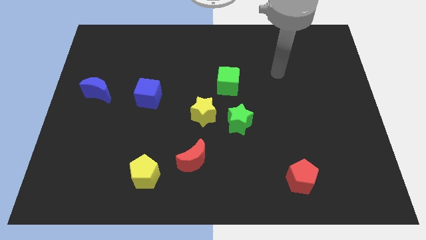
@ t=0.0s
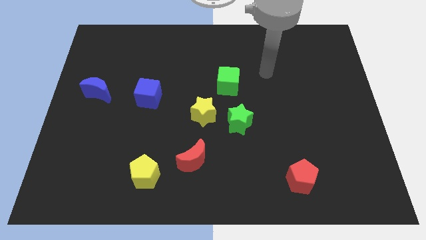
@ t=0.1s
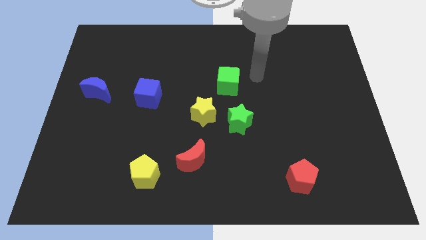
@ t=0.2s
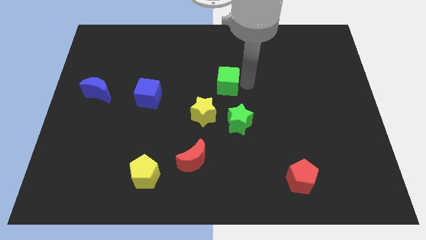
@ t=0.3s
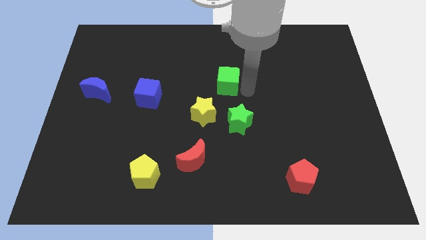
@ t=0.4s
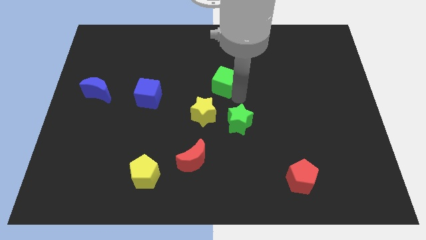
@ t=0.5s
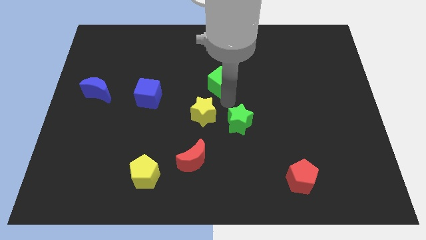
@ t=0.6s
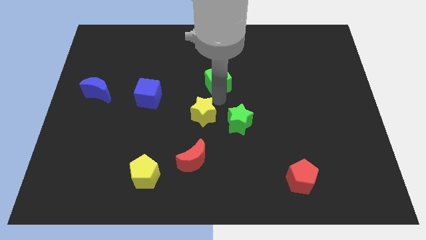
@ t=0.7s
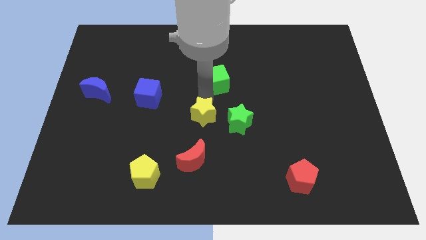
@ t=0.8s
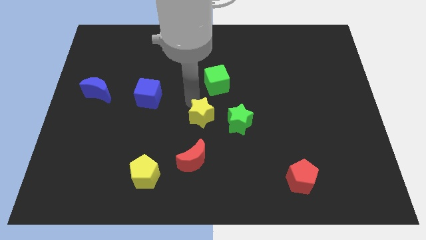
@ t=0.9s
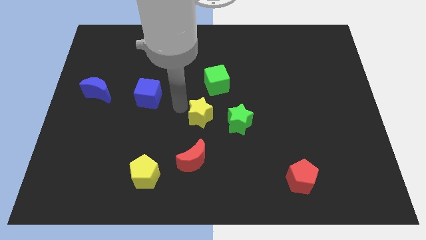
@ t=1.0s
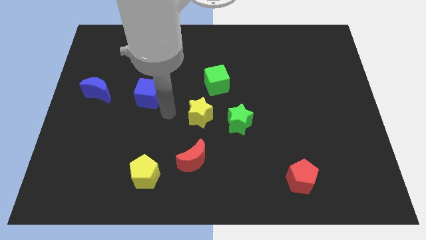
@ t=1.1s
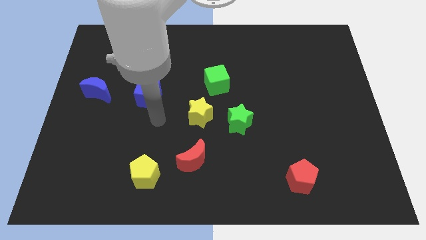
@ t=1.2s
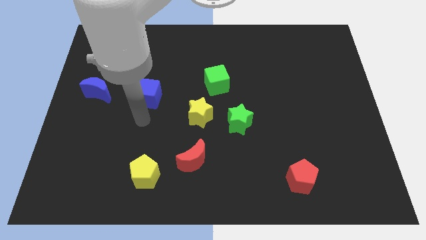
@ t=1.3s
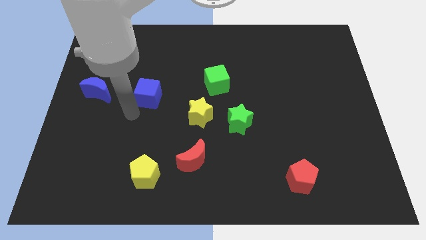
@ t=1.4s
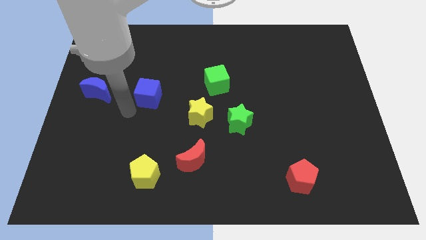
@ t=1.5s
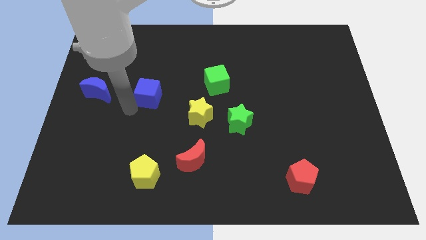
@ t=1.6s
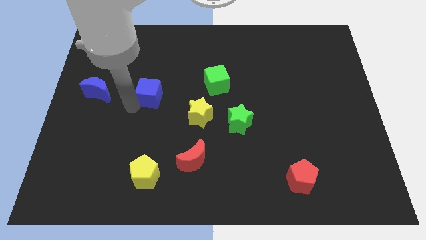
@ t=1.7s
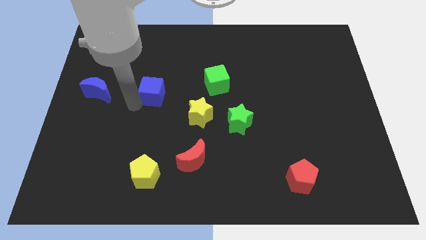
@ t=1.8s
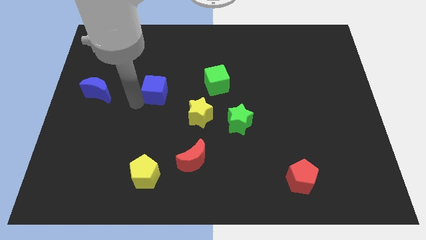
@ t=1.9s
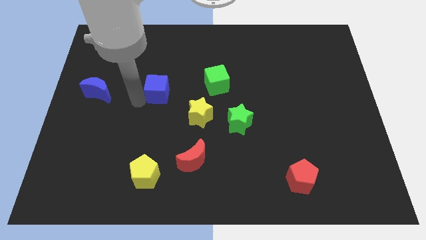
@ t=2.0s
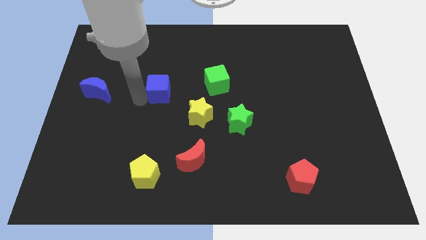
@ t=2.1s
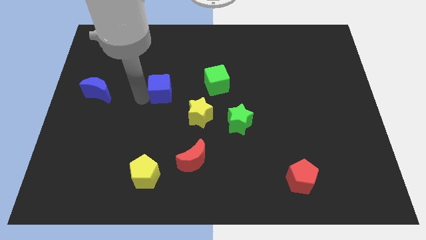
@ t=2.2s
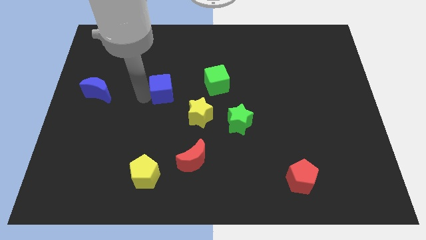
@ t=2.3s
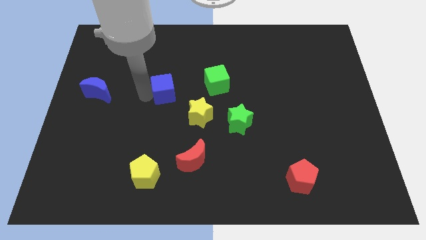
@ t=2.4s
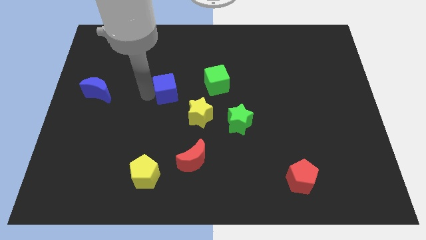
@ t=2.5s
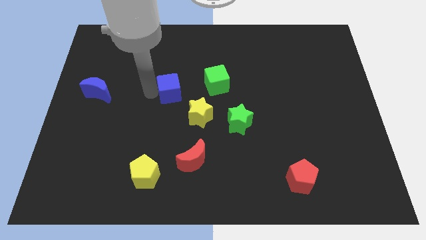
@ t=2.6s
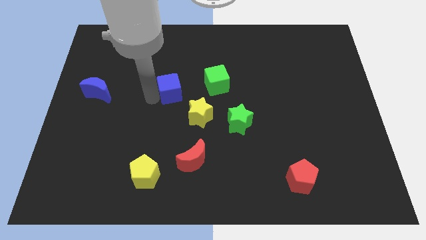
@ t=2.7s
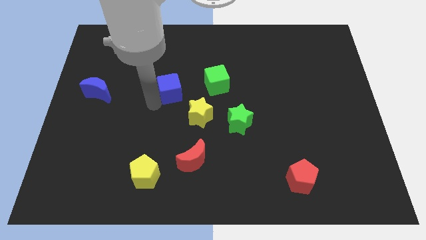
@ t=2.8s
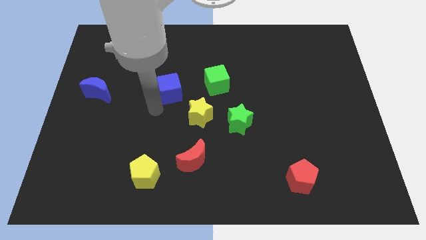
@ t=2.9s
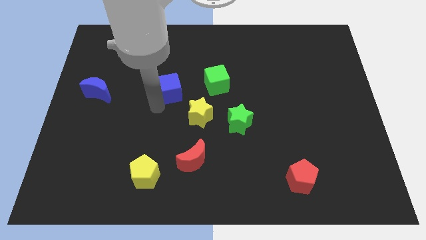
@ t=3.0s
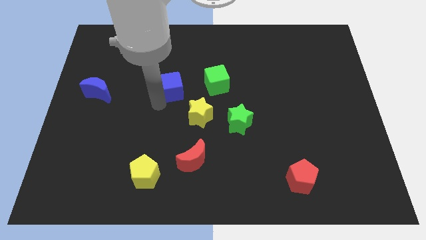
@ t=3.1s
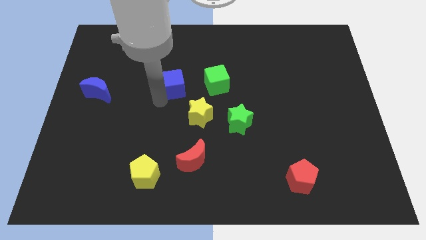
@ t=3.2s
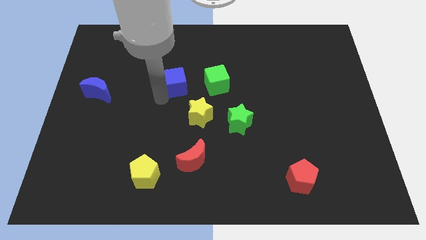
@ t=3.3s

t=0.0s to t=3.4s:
slide the blue cube slightly upwards and right

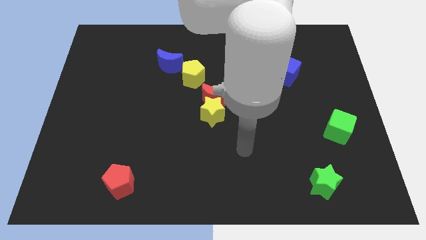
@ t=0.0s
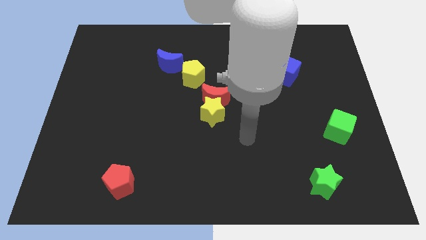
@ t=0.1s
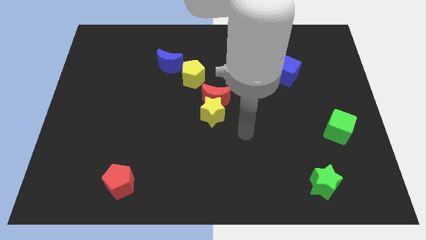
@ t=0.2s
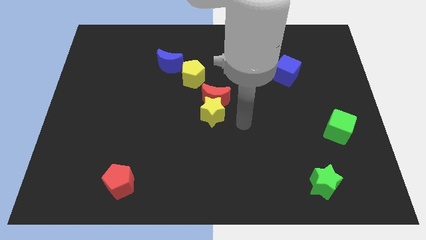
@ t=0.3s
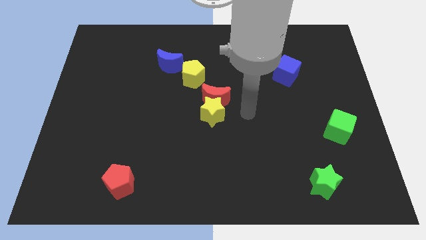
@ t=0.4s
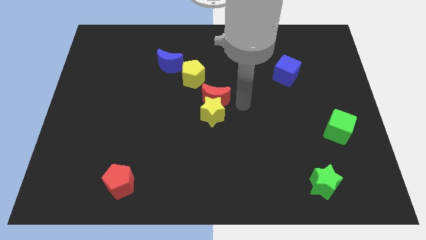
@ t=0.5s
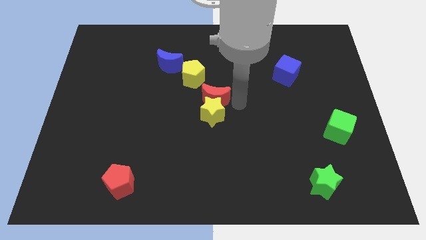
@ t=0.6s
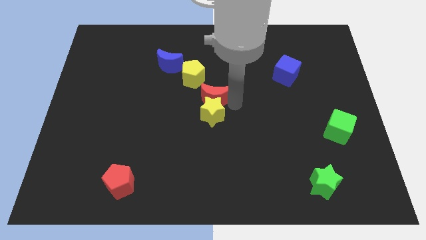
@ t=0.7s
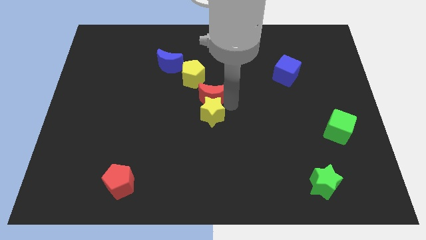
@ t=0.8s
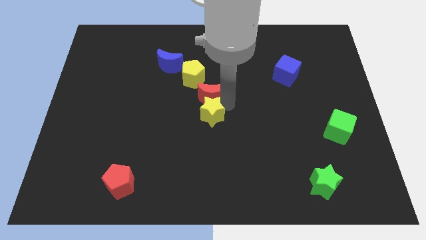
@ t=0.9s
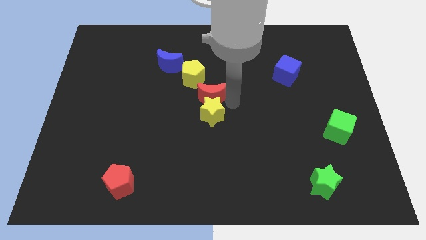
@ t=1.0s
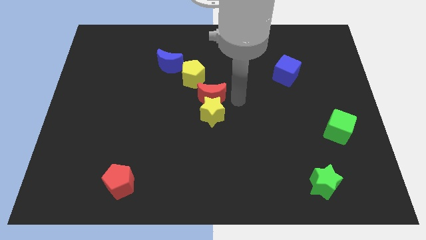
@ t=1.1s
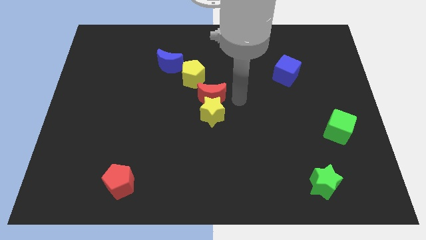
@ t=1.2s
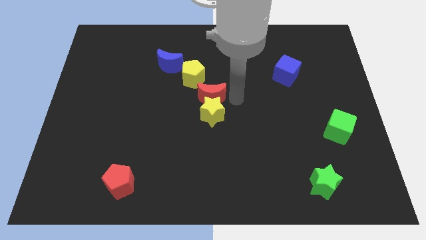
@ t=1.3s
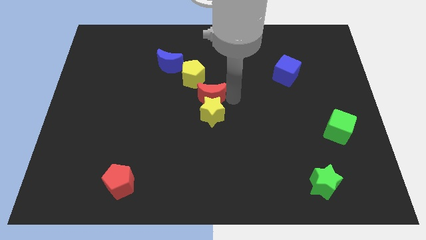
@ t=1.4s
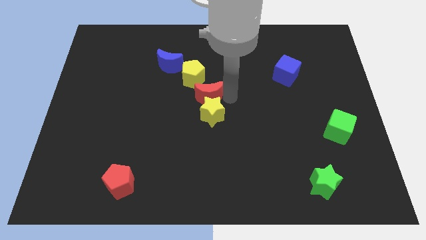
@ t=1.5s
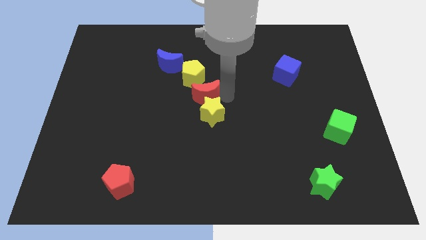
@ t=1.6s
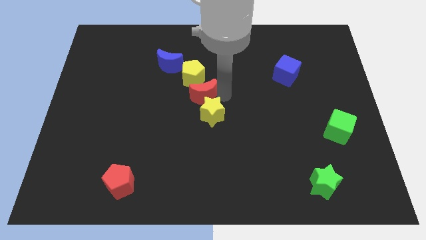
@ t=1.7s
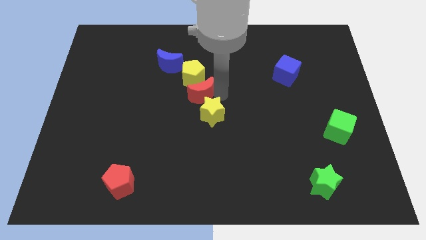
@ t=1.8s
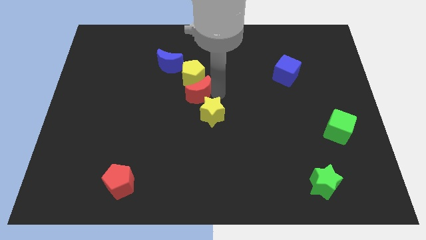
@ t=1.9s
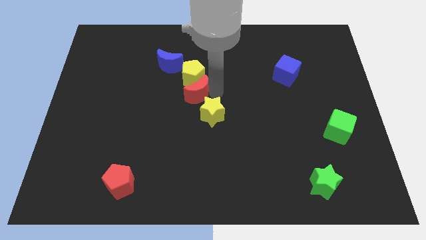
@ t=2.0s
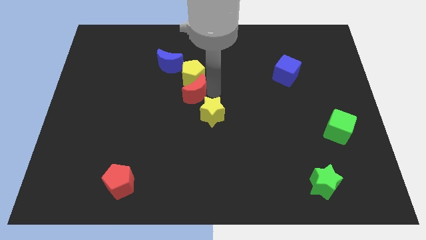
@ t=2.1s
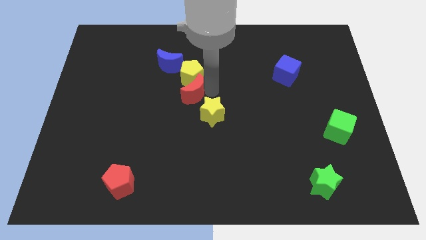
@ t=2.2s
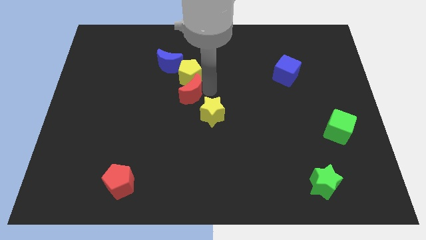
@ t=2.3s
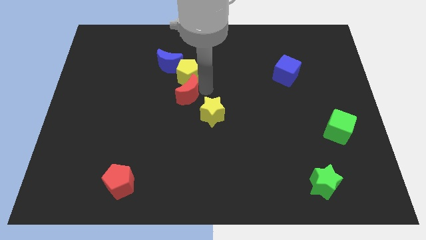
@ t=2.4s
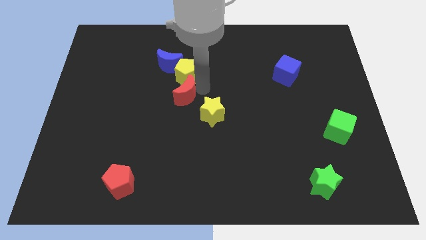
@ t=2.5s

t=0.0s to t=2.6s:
slide the red moon left a bit

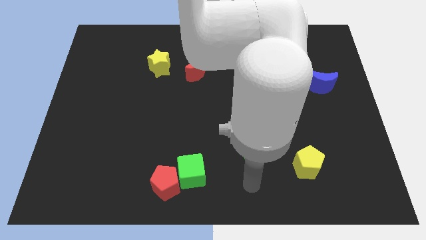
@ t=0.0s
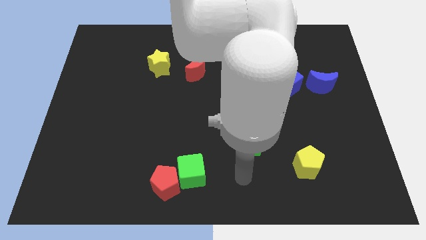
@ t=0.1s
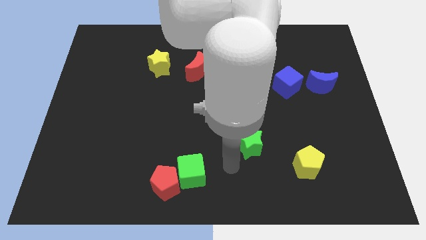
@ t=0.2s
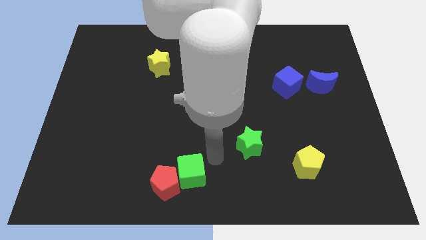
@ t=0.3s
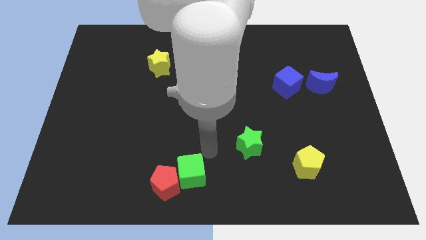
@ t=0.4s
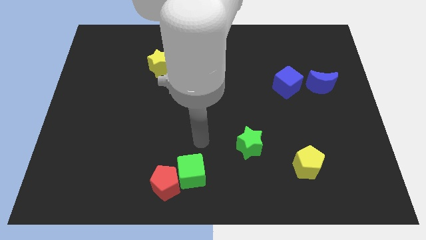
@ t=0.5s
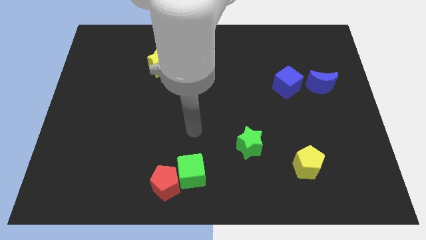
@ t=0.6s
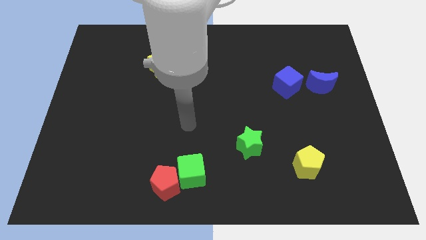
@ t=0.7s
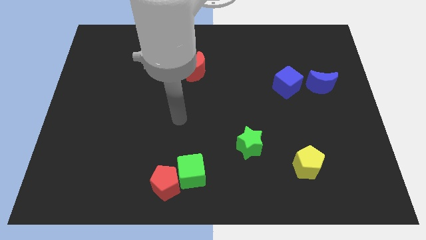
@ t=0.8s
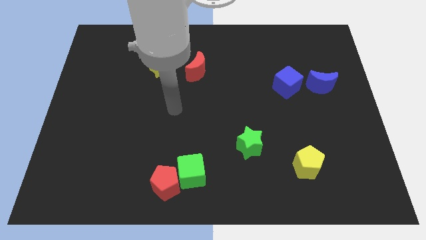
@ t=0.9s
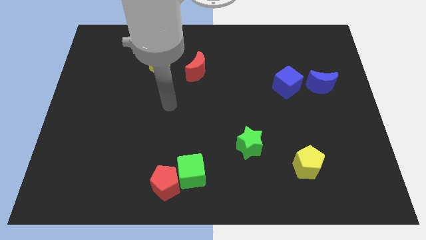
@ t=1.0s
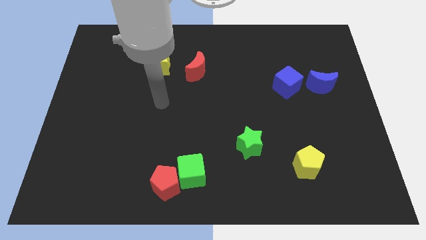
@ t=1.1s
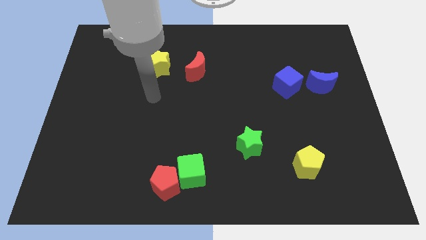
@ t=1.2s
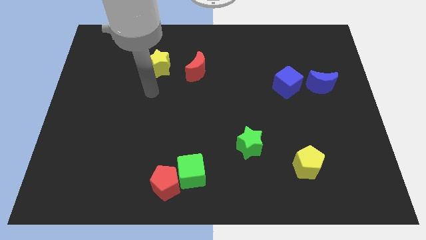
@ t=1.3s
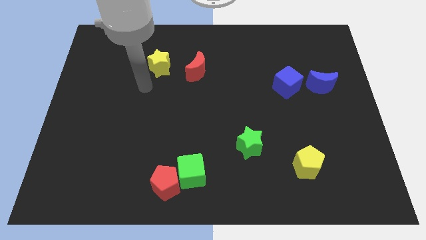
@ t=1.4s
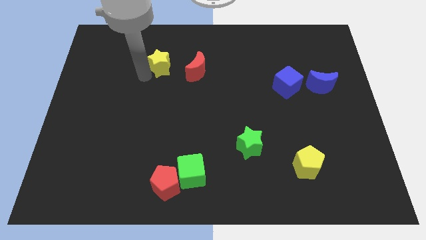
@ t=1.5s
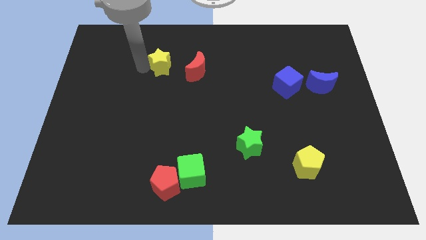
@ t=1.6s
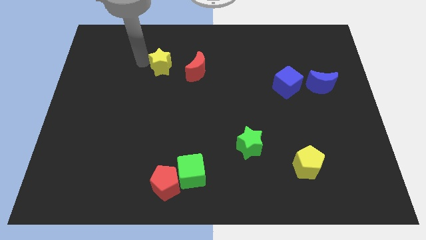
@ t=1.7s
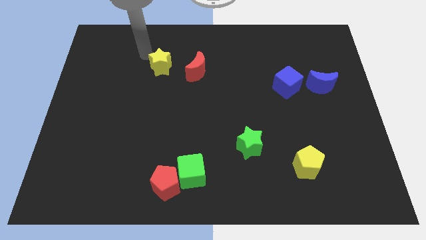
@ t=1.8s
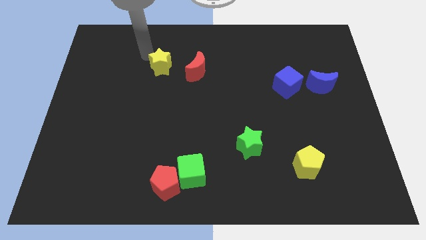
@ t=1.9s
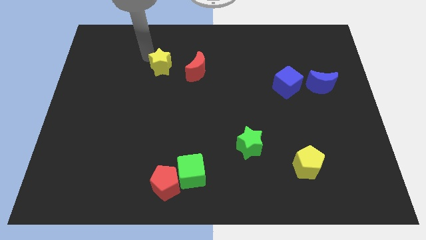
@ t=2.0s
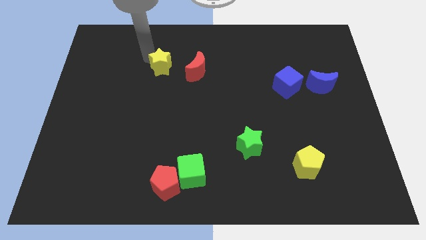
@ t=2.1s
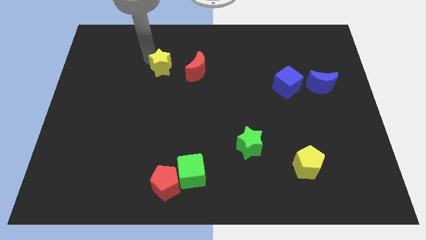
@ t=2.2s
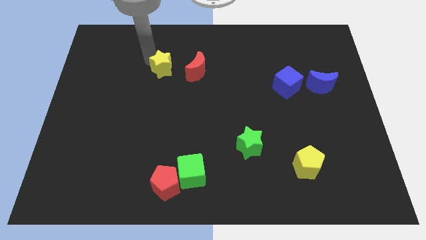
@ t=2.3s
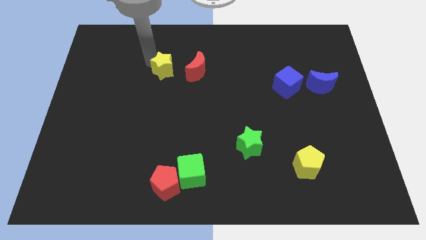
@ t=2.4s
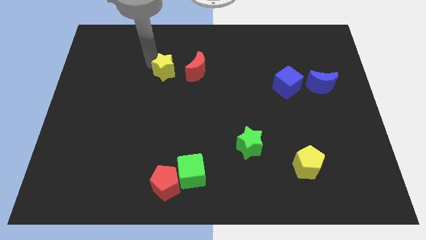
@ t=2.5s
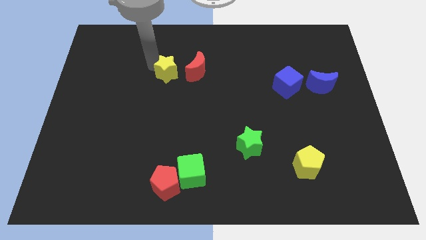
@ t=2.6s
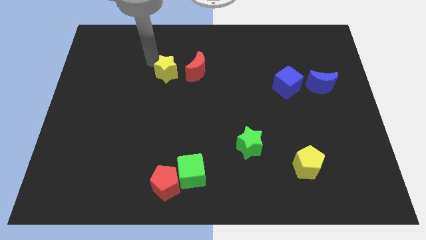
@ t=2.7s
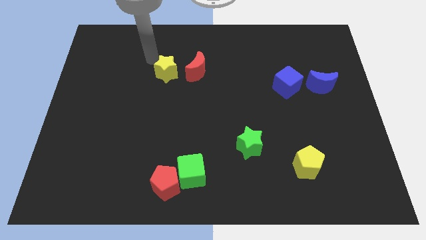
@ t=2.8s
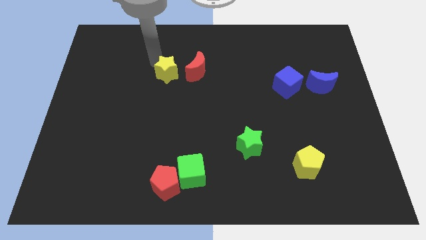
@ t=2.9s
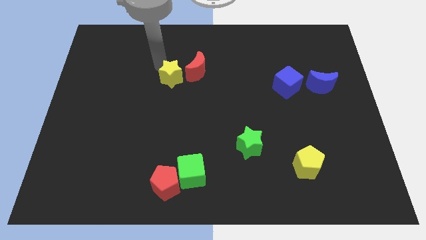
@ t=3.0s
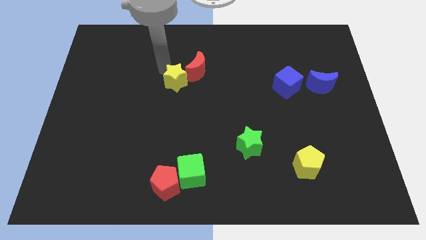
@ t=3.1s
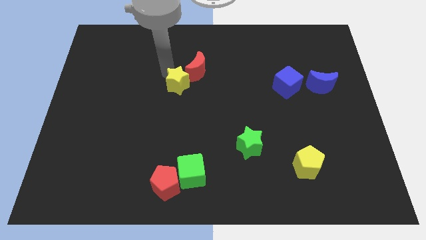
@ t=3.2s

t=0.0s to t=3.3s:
move the yellow star slightly downwards and right diagonally
